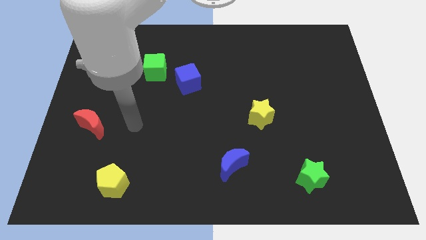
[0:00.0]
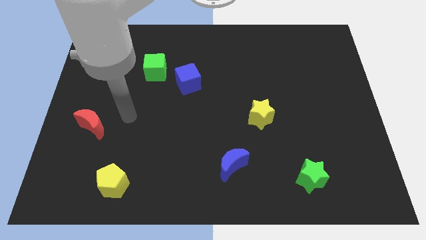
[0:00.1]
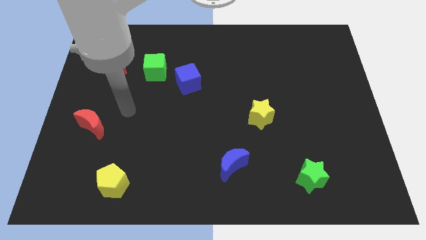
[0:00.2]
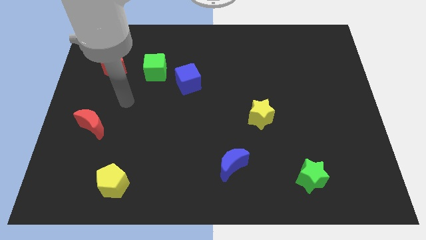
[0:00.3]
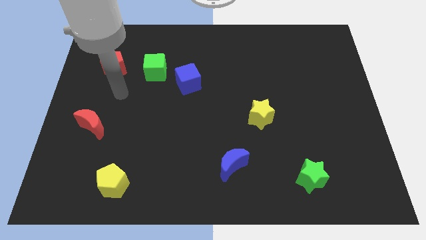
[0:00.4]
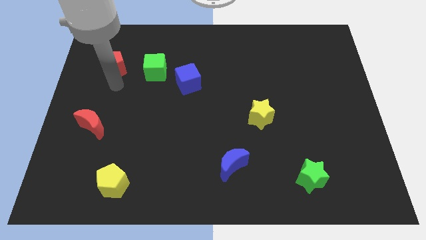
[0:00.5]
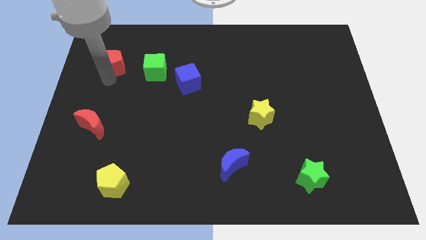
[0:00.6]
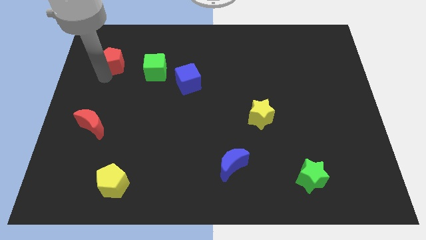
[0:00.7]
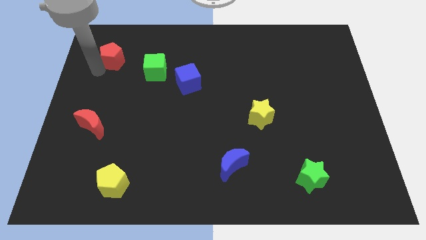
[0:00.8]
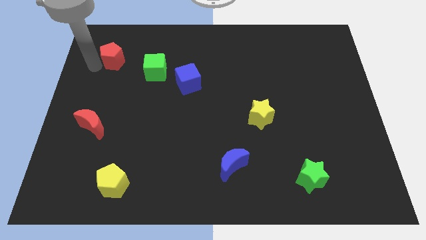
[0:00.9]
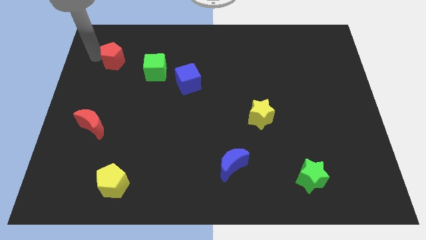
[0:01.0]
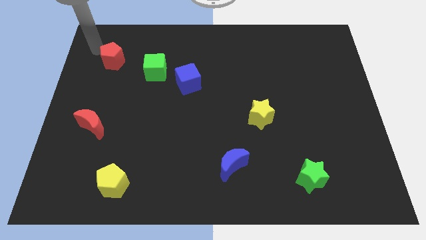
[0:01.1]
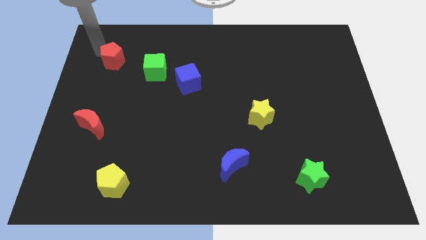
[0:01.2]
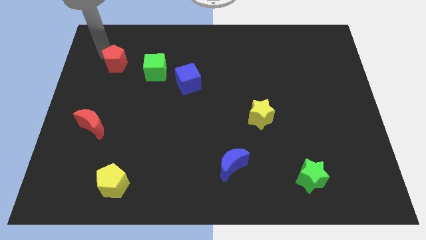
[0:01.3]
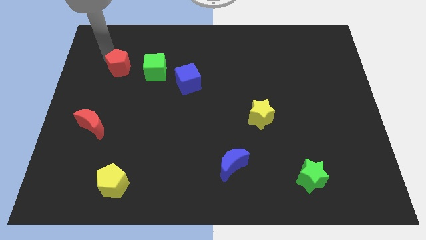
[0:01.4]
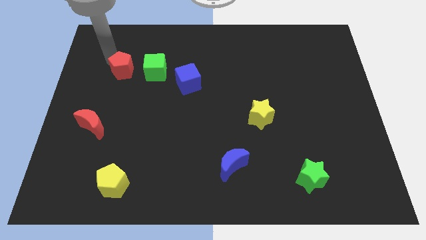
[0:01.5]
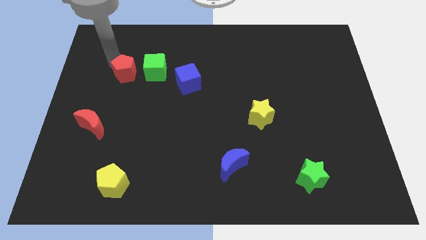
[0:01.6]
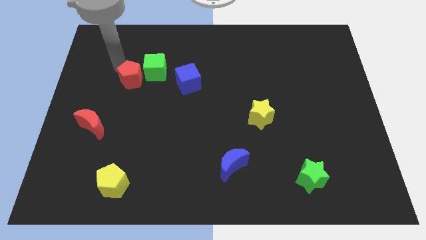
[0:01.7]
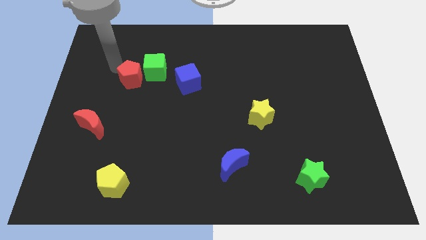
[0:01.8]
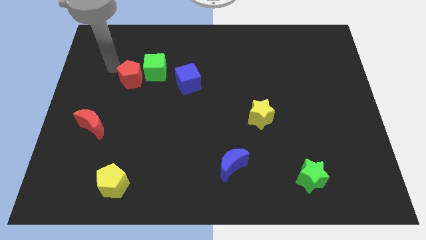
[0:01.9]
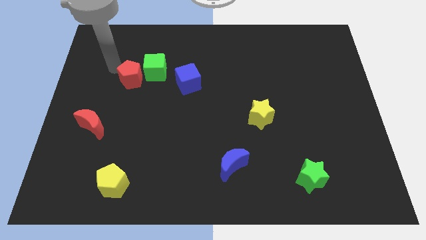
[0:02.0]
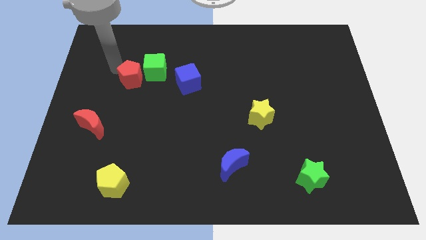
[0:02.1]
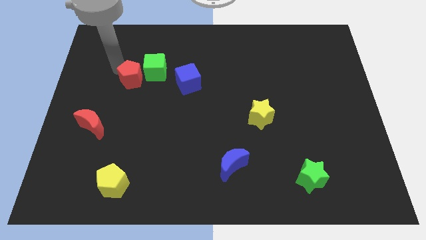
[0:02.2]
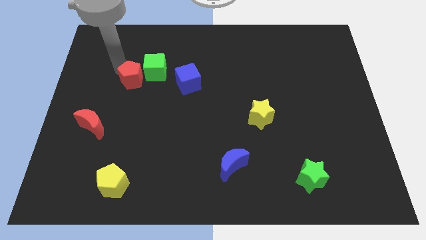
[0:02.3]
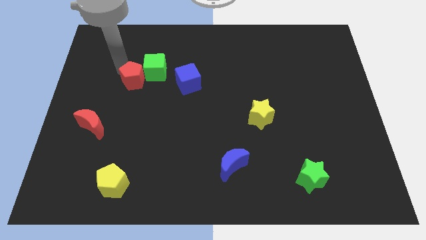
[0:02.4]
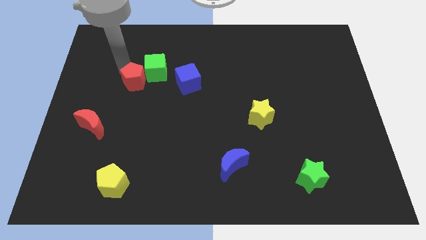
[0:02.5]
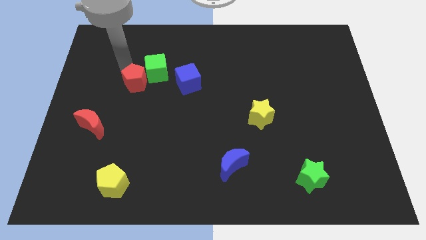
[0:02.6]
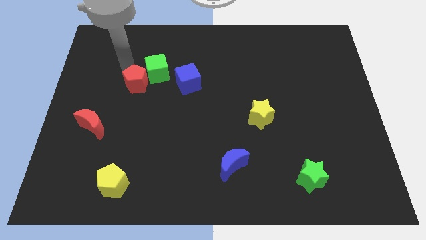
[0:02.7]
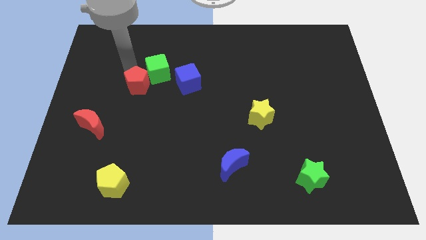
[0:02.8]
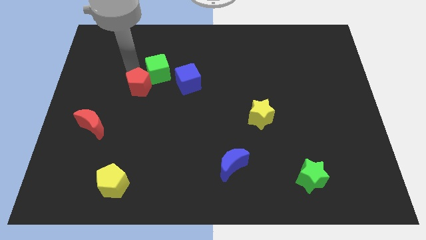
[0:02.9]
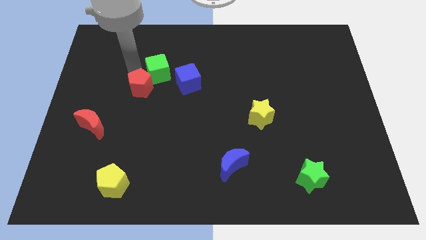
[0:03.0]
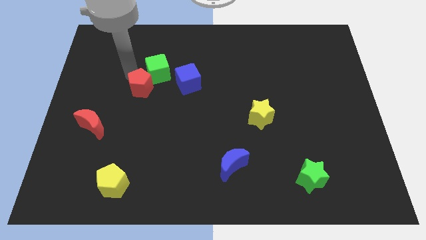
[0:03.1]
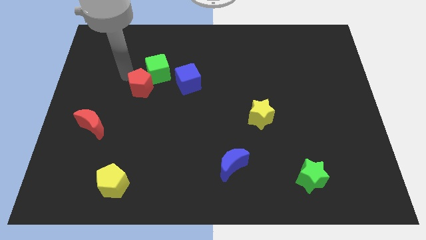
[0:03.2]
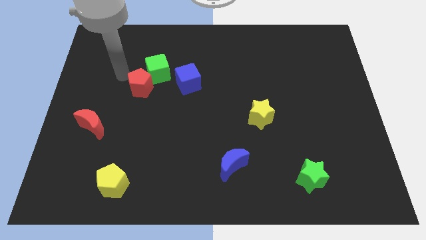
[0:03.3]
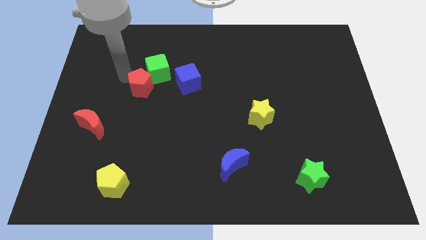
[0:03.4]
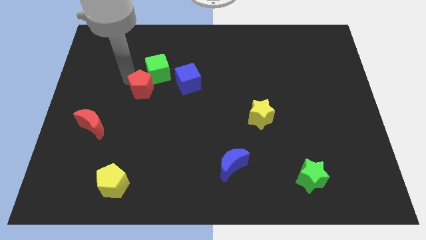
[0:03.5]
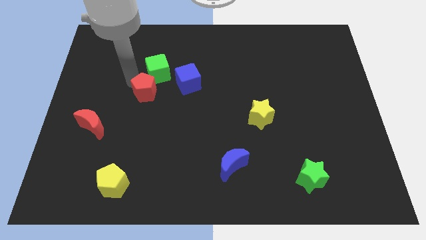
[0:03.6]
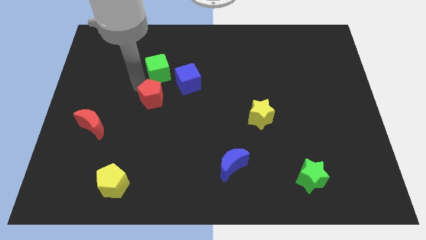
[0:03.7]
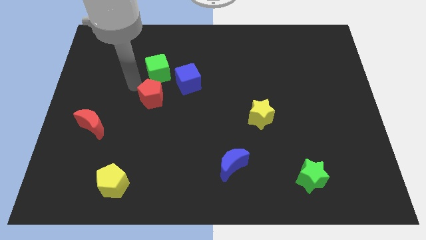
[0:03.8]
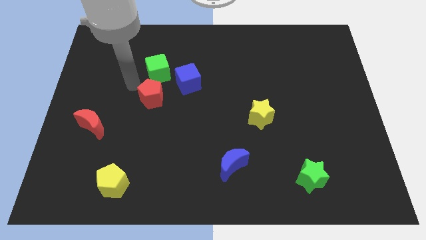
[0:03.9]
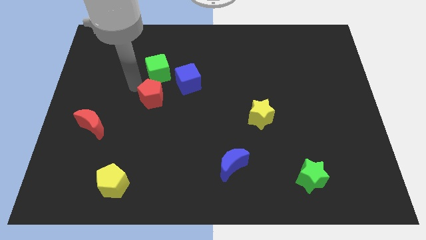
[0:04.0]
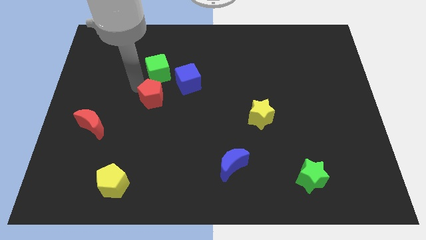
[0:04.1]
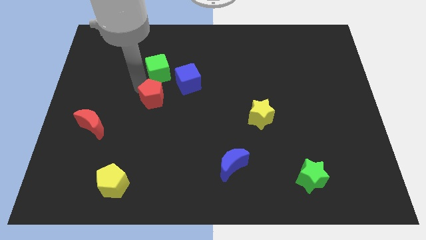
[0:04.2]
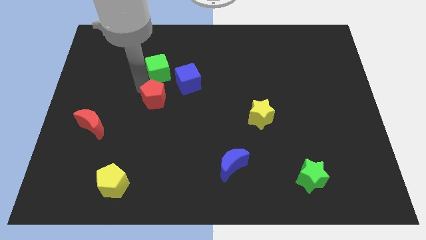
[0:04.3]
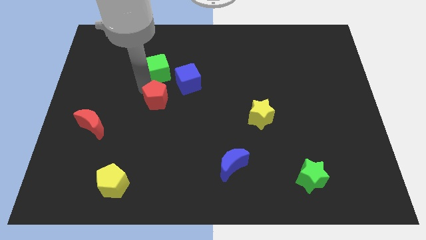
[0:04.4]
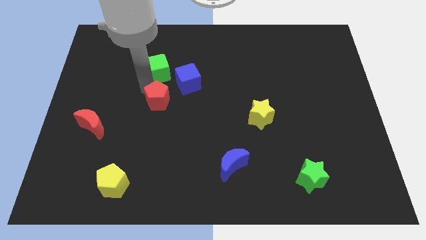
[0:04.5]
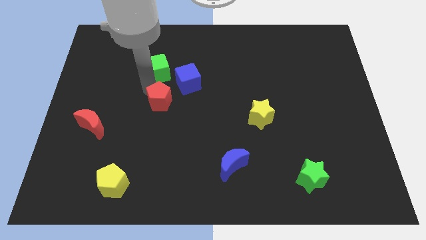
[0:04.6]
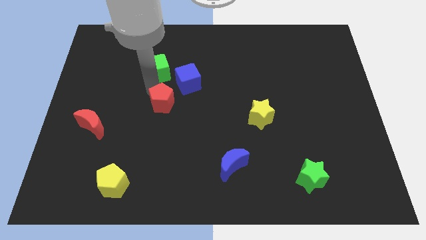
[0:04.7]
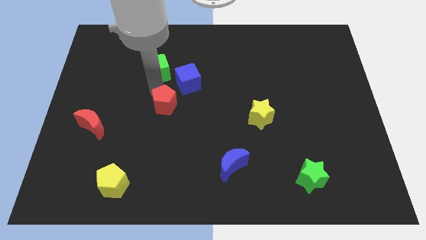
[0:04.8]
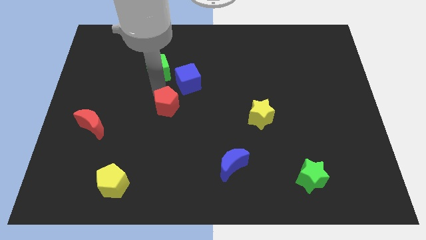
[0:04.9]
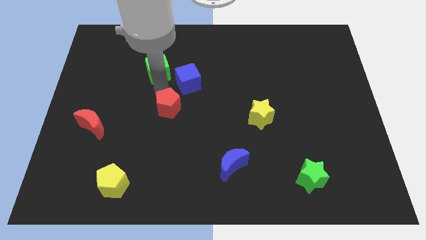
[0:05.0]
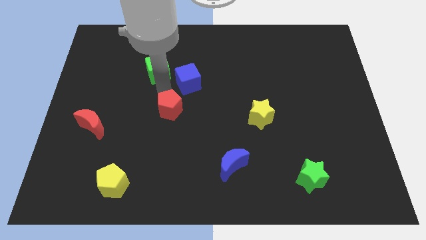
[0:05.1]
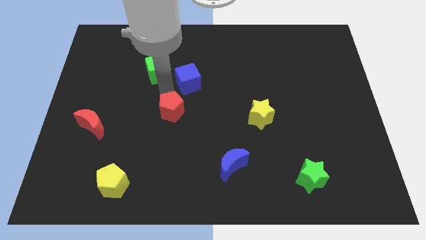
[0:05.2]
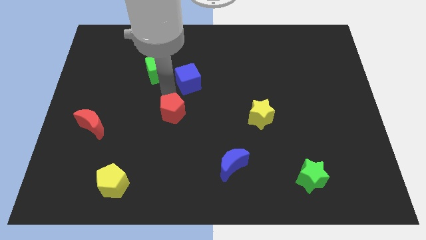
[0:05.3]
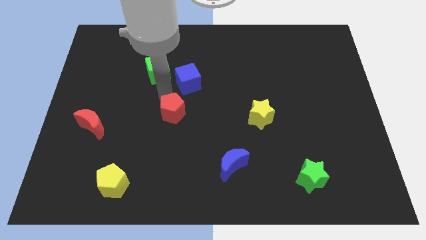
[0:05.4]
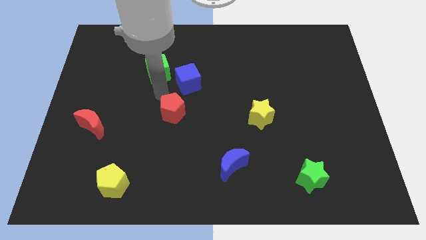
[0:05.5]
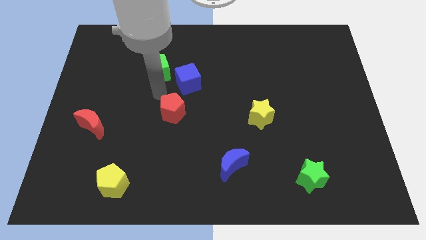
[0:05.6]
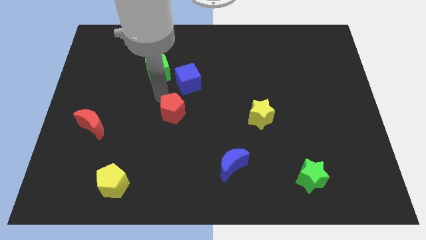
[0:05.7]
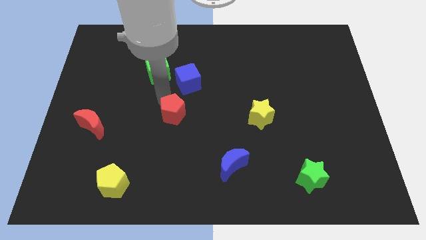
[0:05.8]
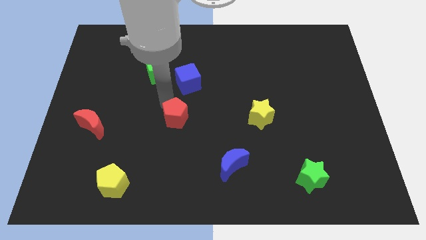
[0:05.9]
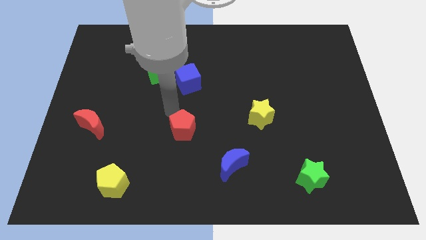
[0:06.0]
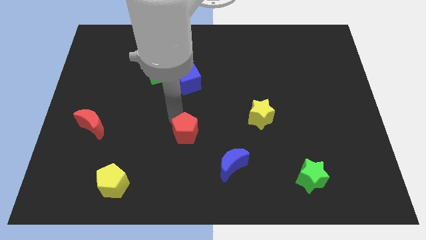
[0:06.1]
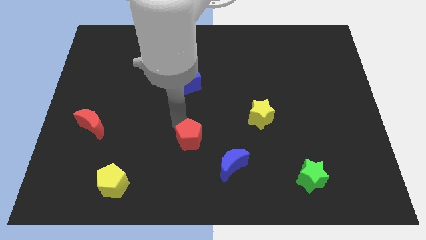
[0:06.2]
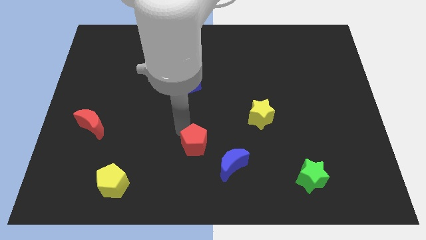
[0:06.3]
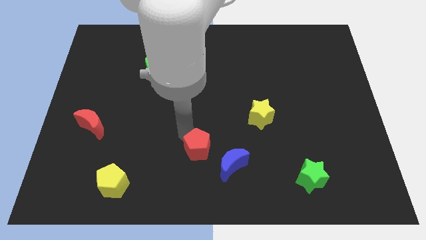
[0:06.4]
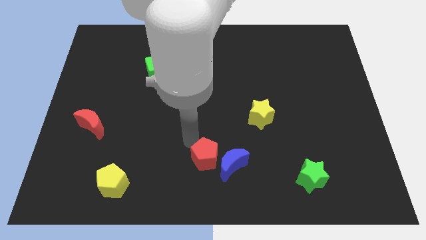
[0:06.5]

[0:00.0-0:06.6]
slide the red pentagon next to the blue moon

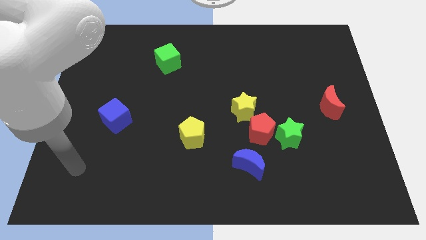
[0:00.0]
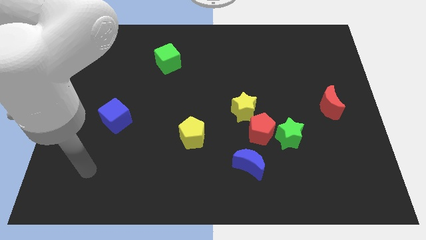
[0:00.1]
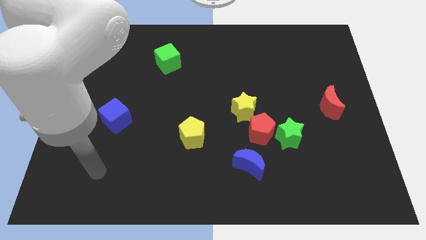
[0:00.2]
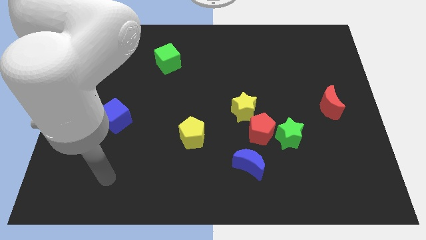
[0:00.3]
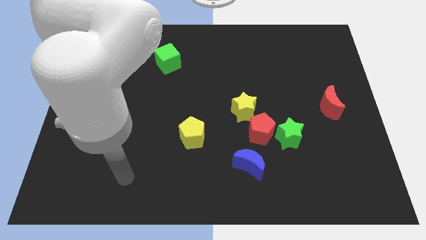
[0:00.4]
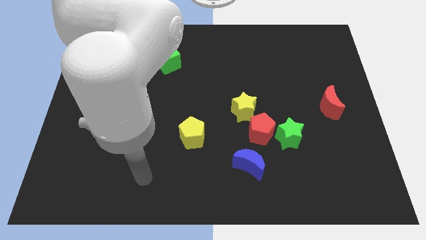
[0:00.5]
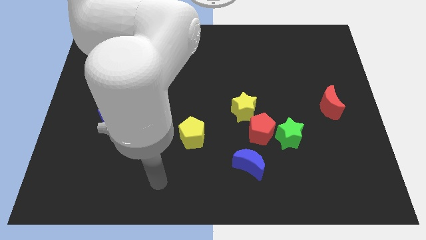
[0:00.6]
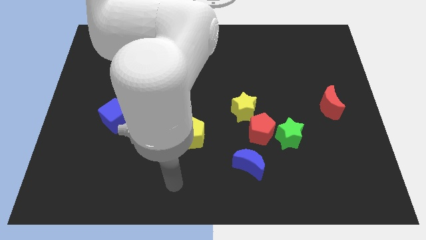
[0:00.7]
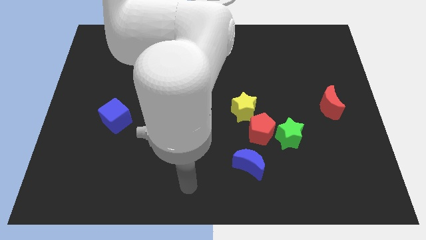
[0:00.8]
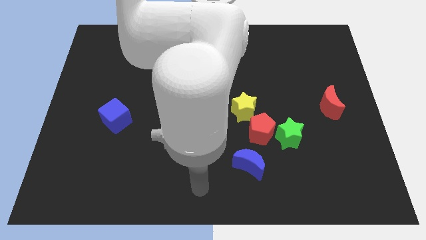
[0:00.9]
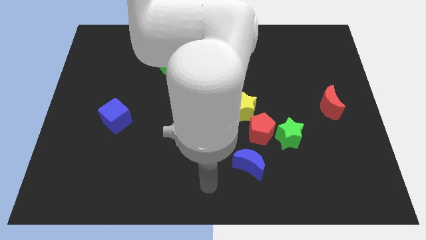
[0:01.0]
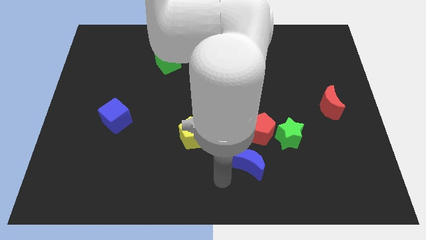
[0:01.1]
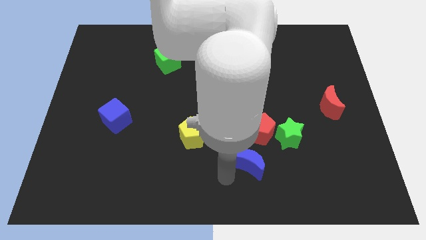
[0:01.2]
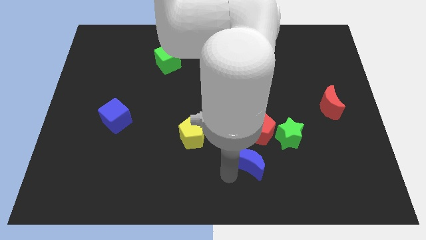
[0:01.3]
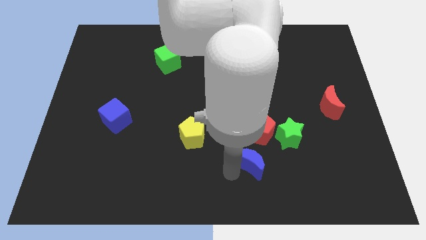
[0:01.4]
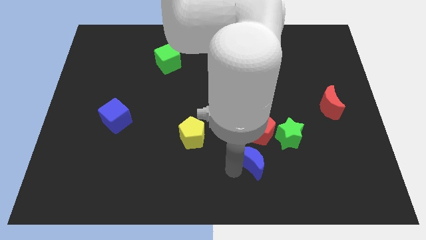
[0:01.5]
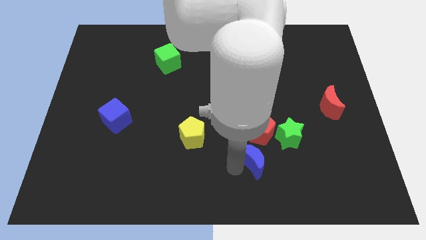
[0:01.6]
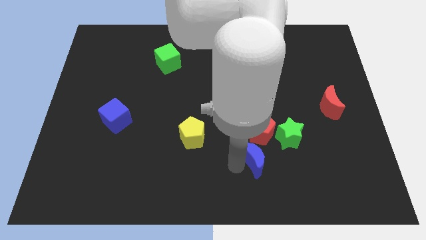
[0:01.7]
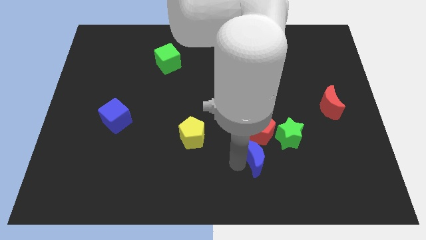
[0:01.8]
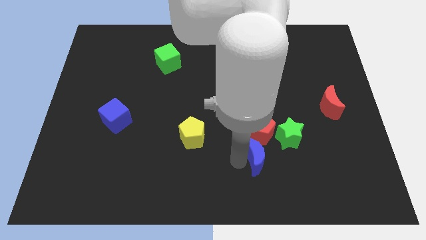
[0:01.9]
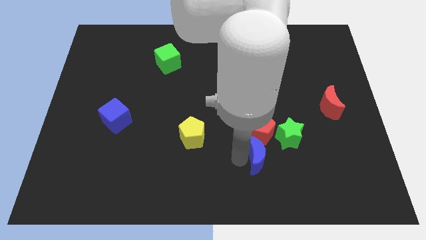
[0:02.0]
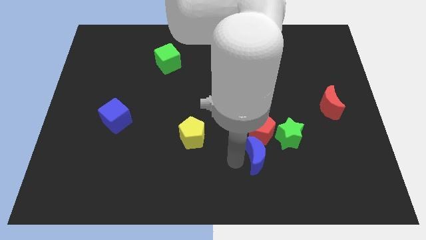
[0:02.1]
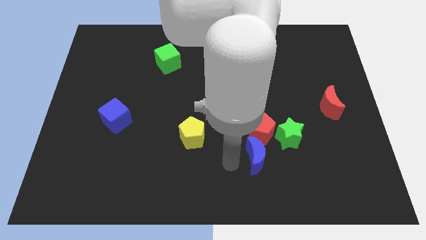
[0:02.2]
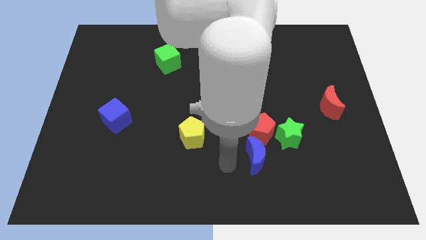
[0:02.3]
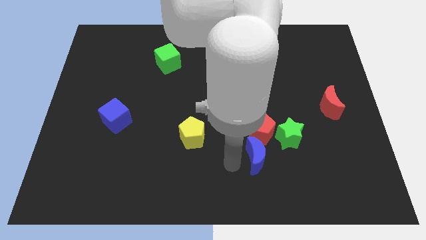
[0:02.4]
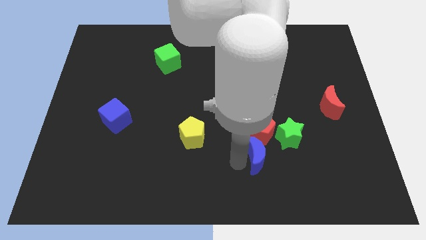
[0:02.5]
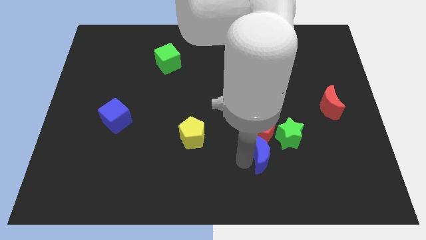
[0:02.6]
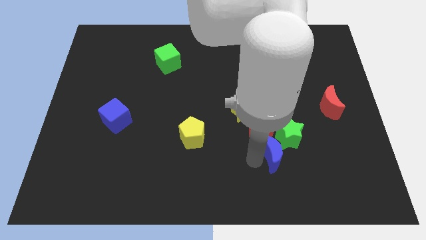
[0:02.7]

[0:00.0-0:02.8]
slide the blue moon to the green star
